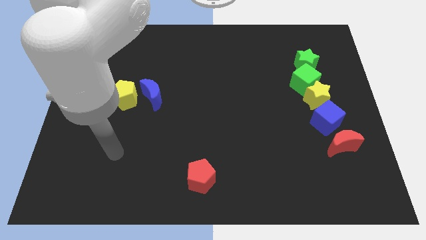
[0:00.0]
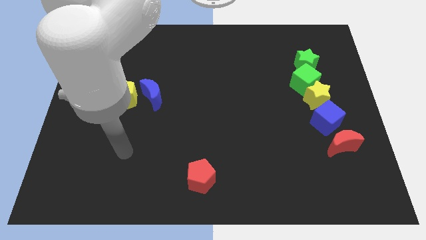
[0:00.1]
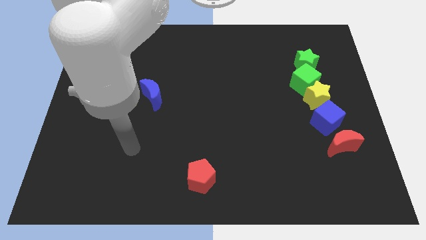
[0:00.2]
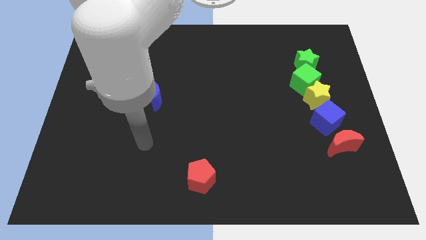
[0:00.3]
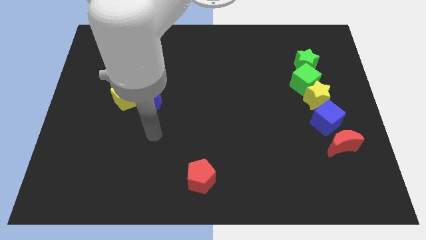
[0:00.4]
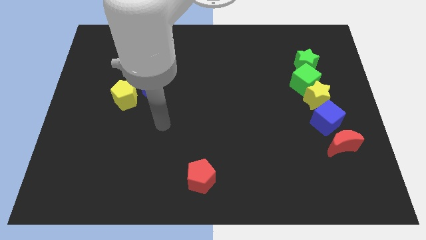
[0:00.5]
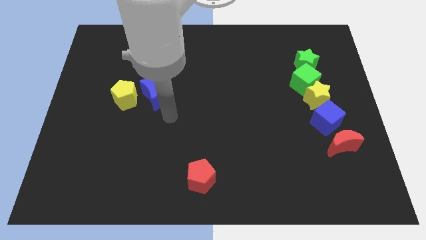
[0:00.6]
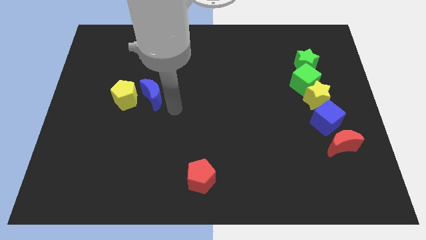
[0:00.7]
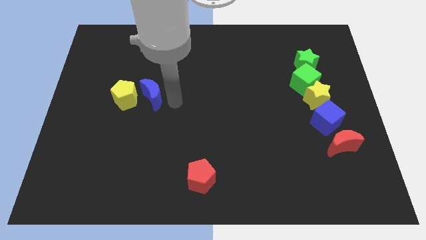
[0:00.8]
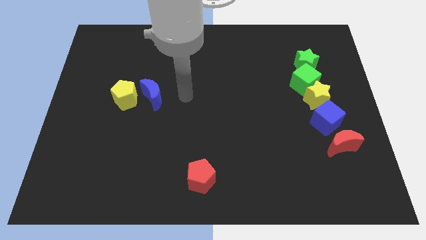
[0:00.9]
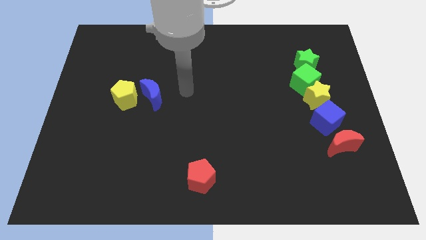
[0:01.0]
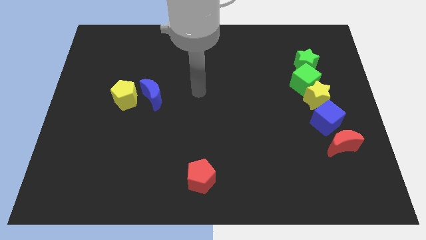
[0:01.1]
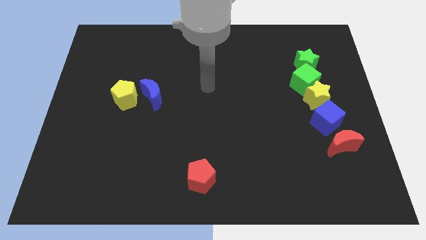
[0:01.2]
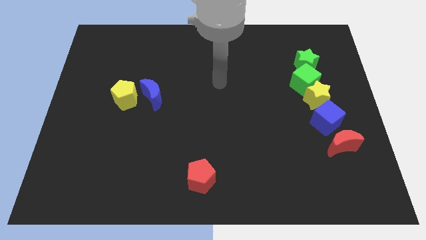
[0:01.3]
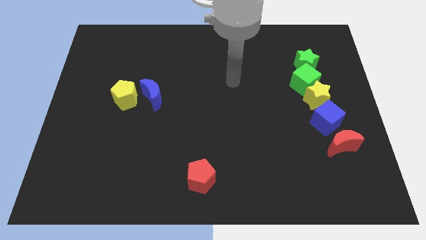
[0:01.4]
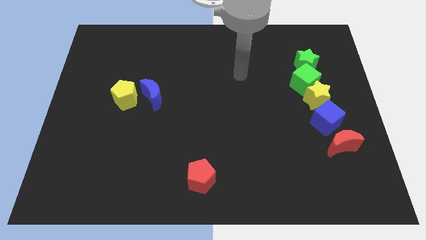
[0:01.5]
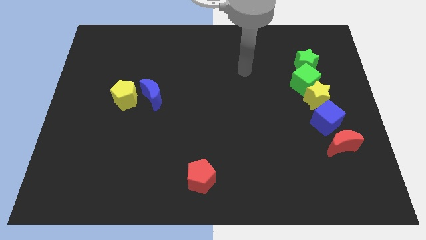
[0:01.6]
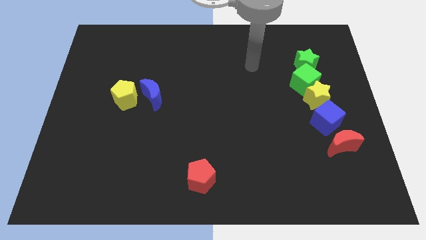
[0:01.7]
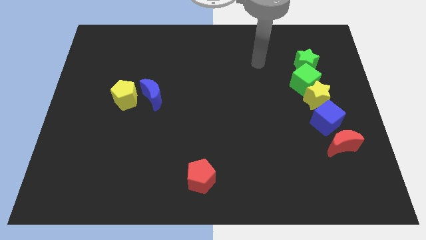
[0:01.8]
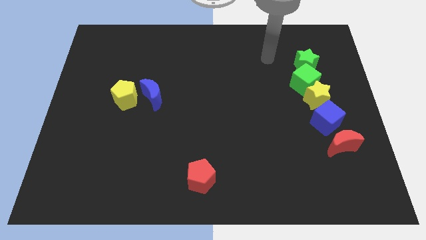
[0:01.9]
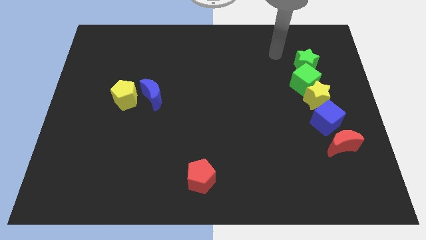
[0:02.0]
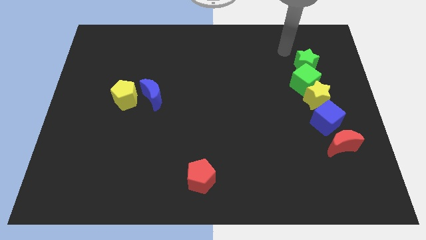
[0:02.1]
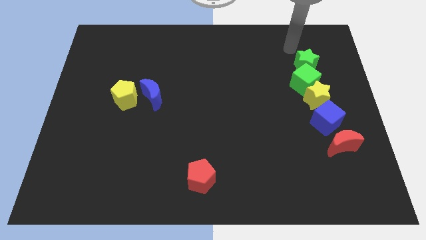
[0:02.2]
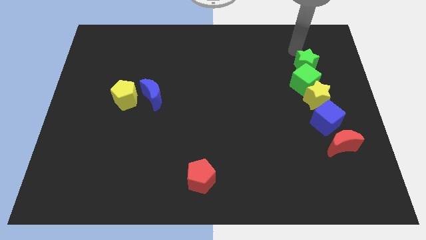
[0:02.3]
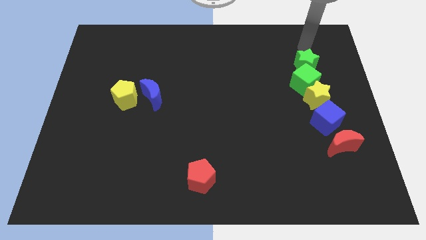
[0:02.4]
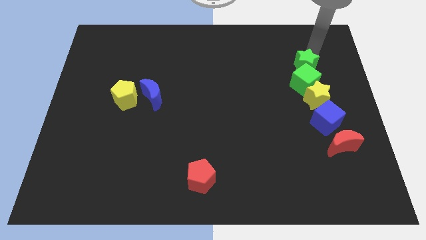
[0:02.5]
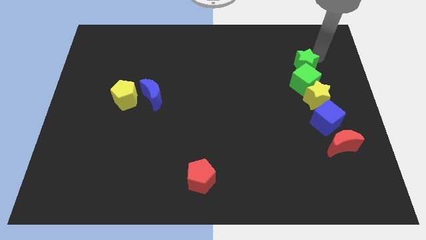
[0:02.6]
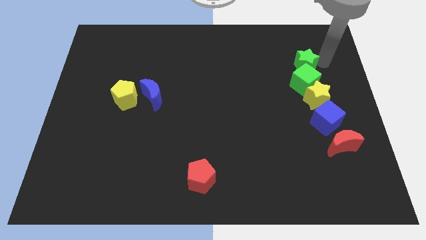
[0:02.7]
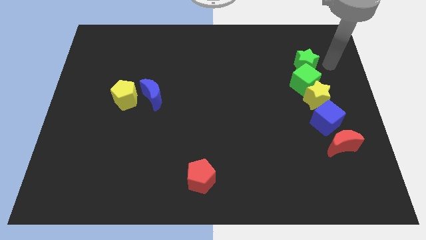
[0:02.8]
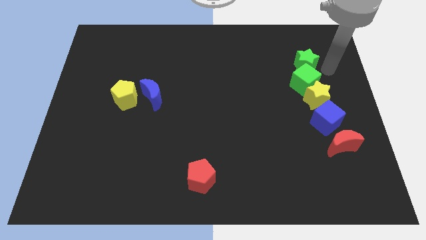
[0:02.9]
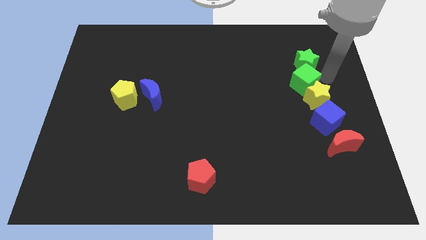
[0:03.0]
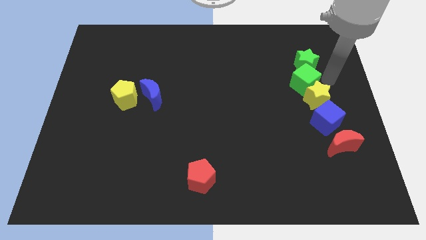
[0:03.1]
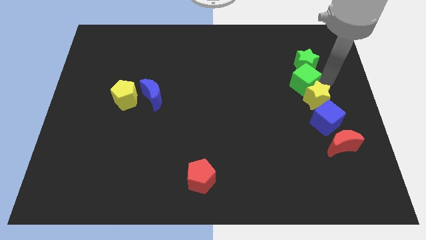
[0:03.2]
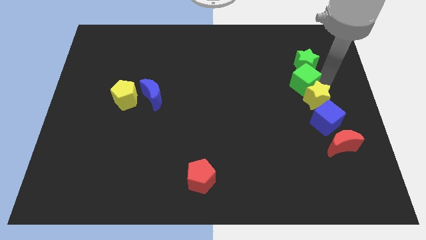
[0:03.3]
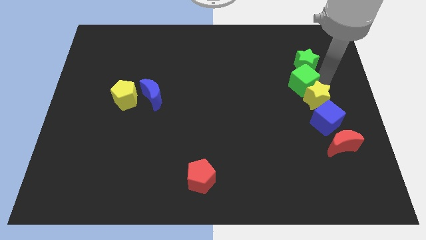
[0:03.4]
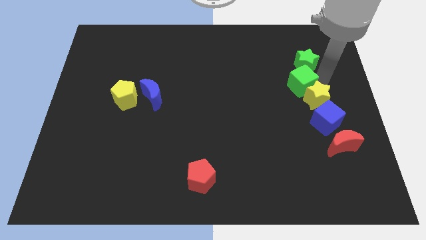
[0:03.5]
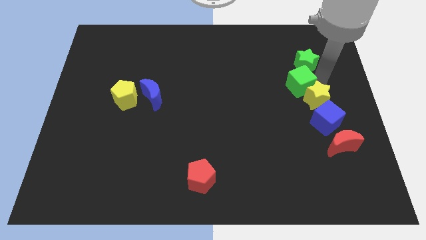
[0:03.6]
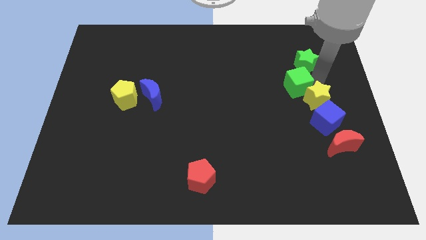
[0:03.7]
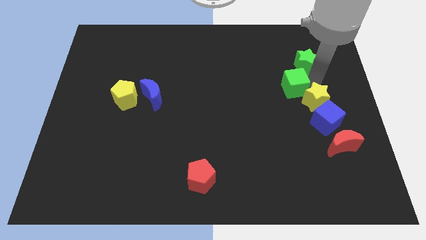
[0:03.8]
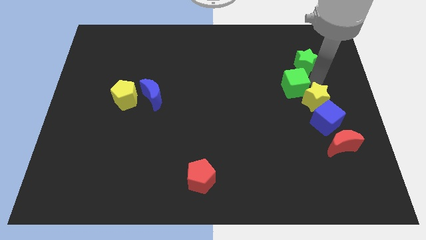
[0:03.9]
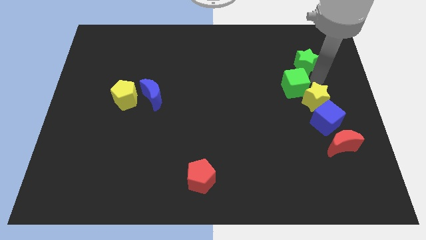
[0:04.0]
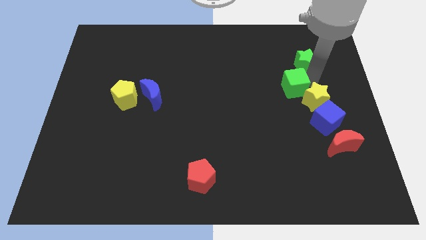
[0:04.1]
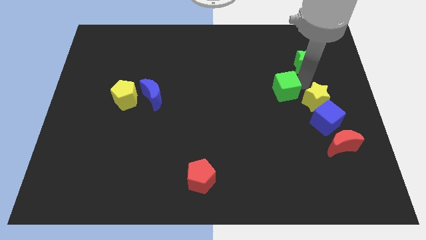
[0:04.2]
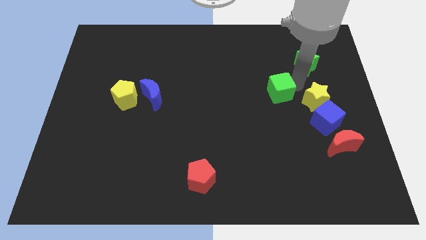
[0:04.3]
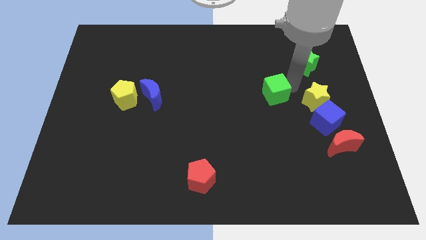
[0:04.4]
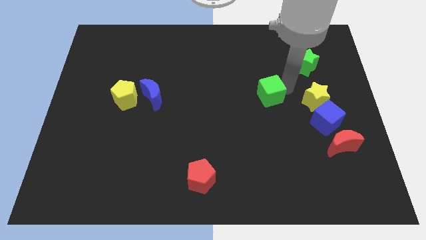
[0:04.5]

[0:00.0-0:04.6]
move the green cube away from the yellow star and green star

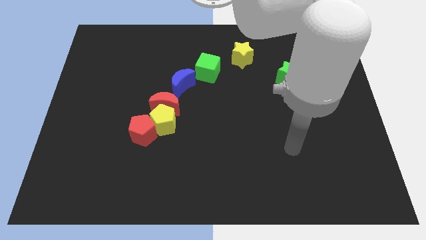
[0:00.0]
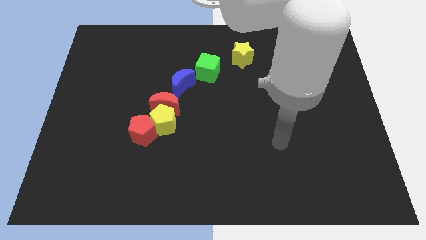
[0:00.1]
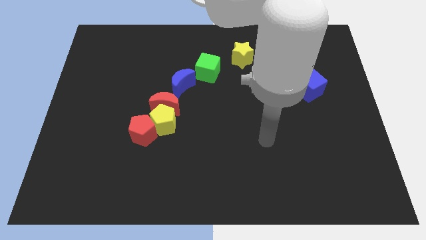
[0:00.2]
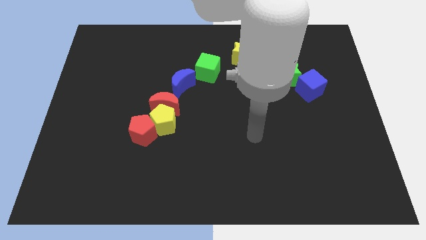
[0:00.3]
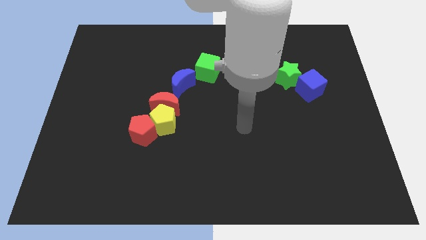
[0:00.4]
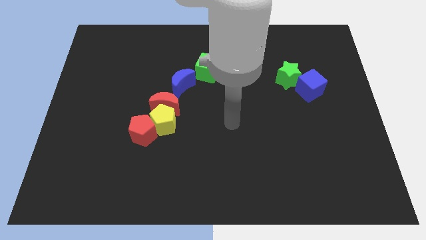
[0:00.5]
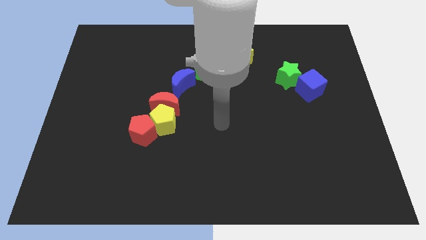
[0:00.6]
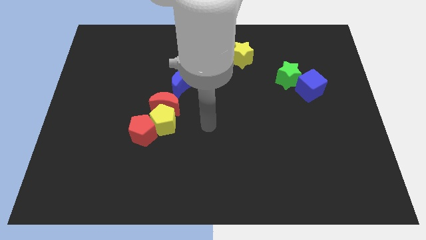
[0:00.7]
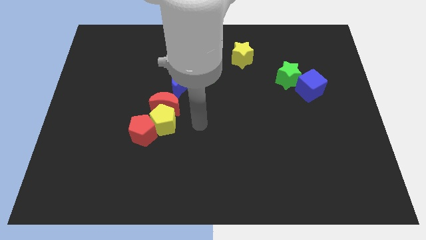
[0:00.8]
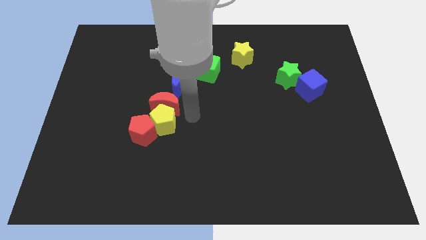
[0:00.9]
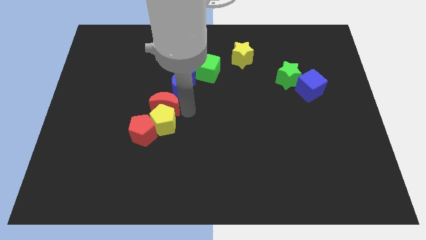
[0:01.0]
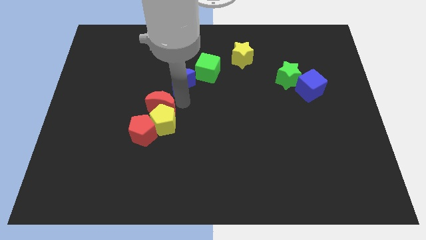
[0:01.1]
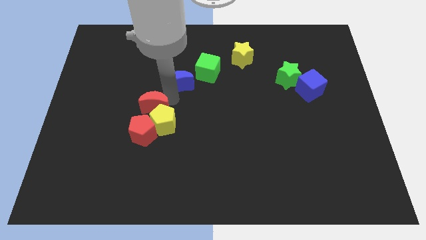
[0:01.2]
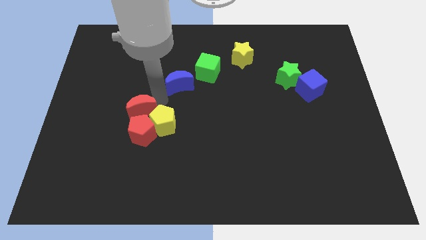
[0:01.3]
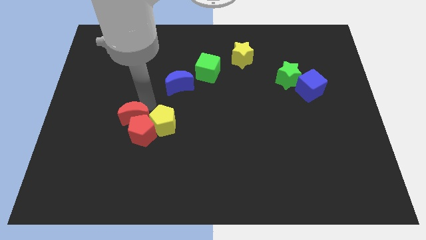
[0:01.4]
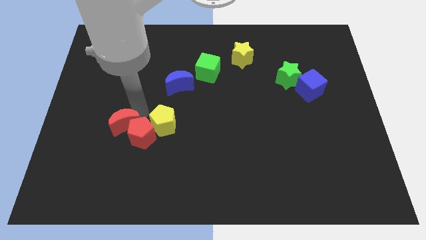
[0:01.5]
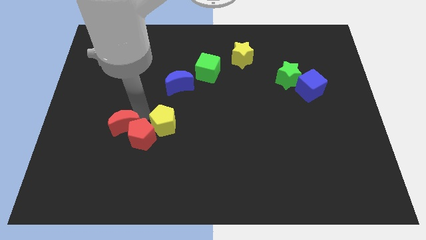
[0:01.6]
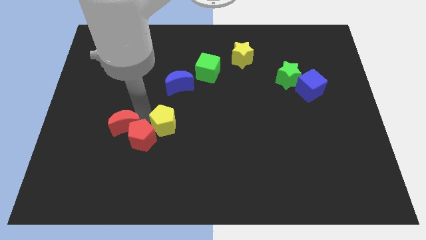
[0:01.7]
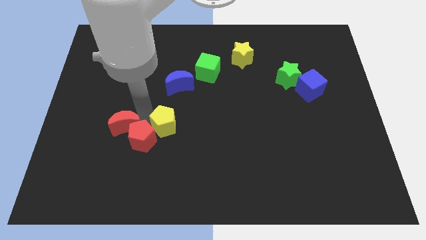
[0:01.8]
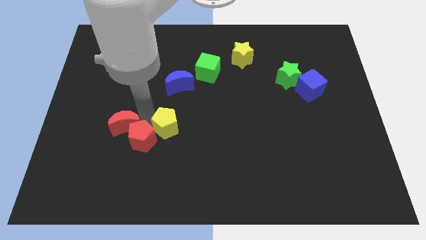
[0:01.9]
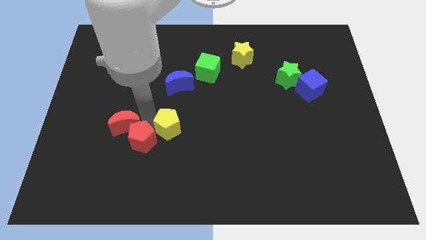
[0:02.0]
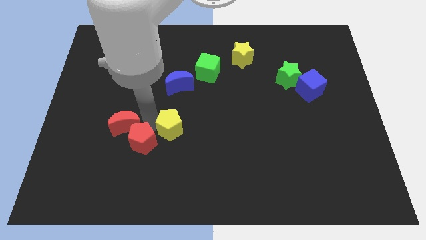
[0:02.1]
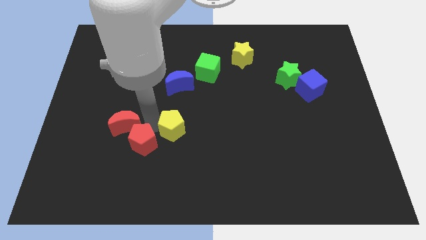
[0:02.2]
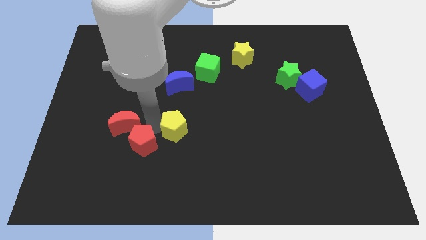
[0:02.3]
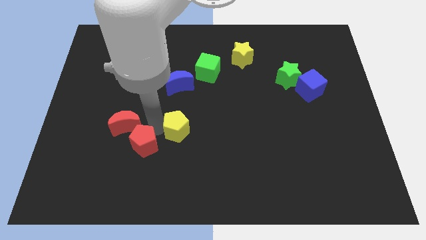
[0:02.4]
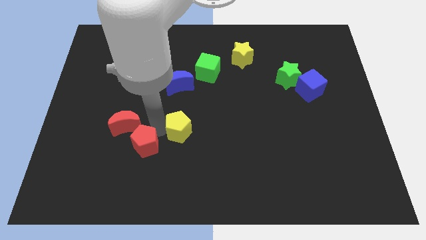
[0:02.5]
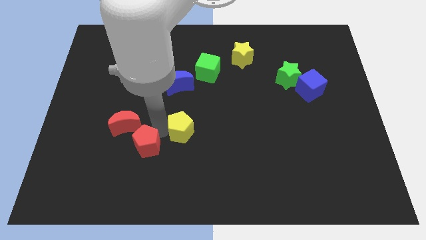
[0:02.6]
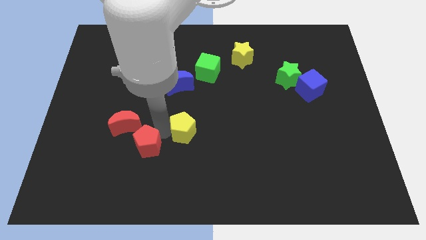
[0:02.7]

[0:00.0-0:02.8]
separate the yellow pentagon from the red moon and red pentagon

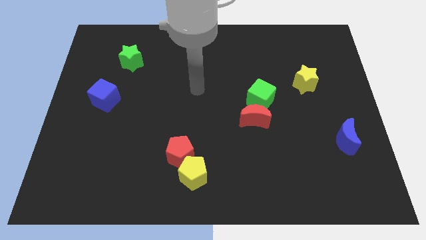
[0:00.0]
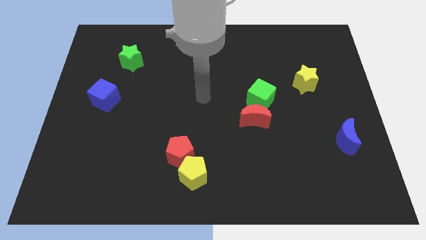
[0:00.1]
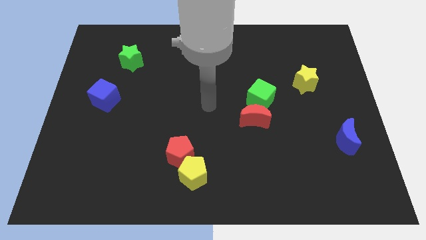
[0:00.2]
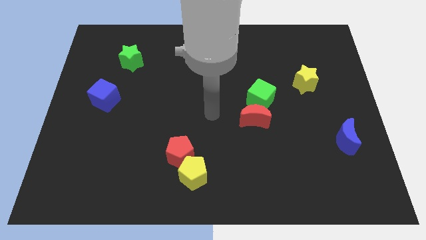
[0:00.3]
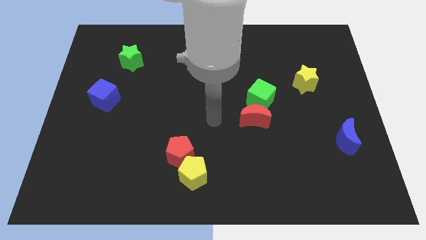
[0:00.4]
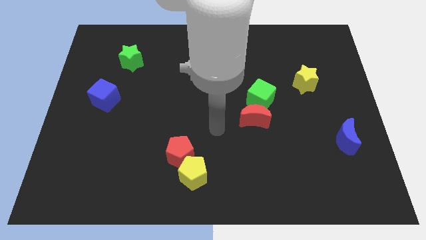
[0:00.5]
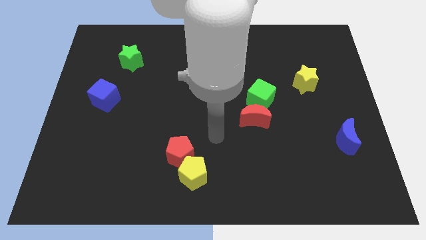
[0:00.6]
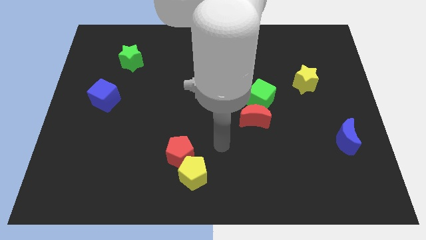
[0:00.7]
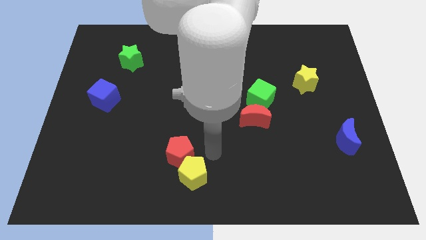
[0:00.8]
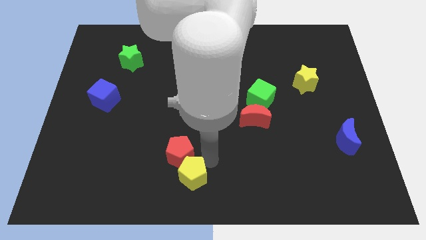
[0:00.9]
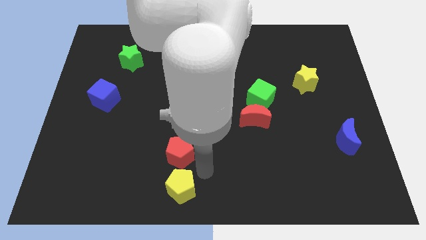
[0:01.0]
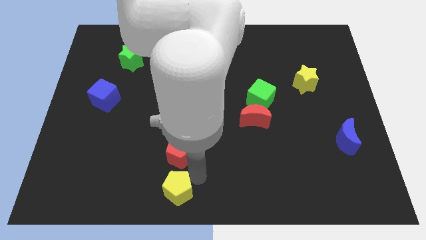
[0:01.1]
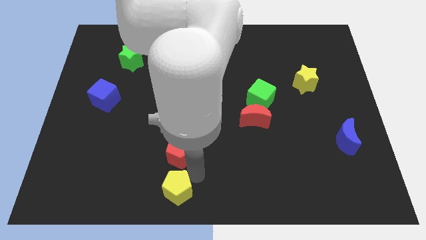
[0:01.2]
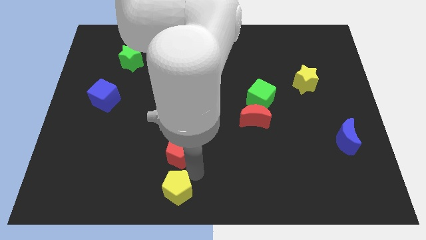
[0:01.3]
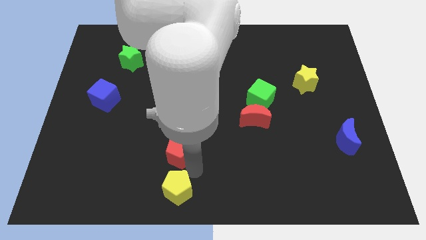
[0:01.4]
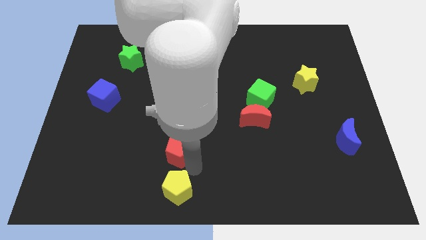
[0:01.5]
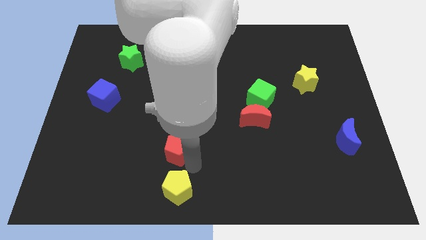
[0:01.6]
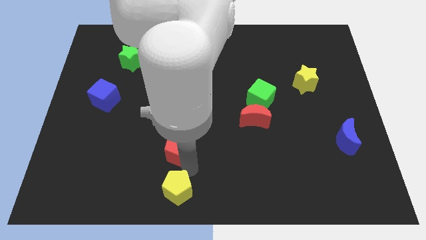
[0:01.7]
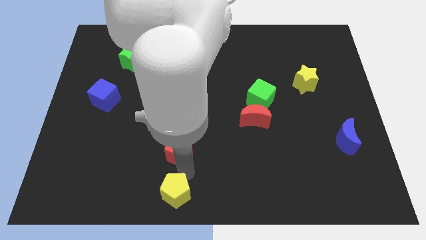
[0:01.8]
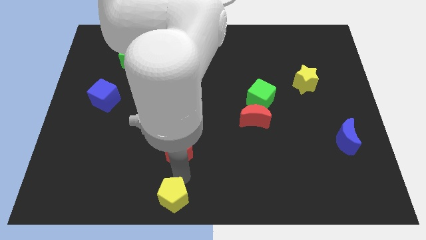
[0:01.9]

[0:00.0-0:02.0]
move the red pentagon away from the yellow pentagon
